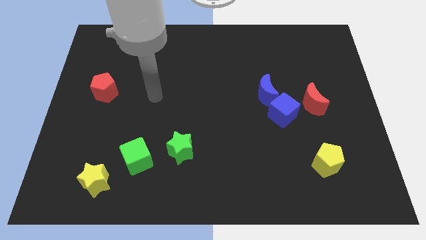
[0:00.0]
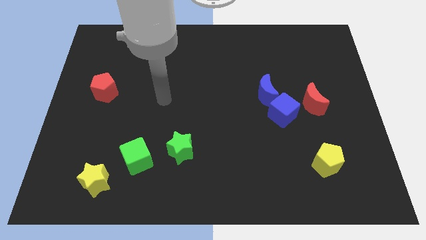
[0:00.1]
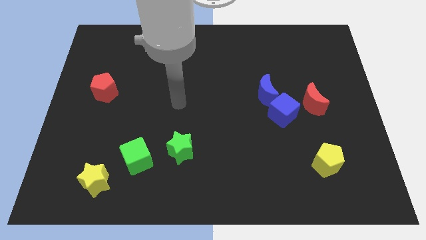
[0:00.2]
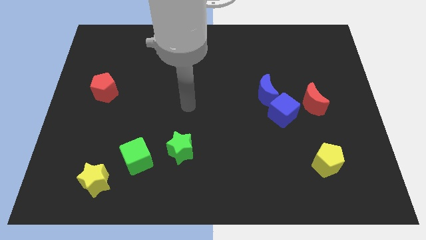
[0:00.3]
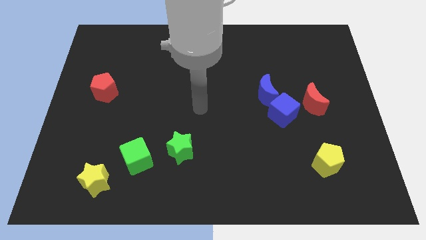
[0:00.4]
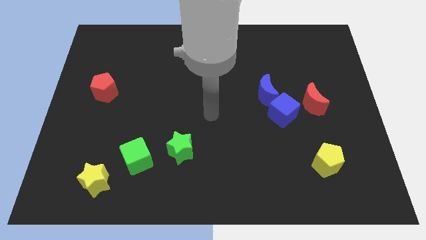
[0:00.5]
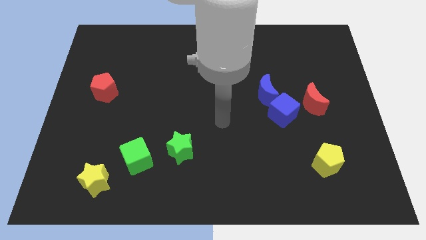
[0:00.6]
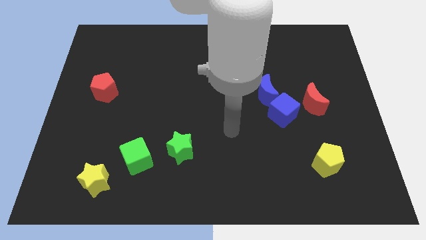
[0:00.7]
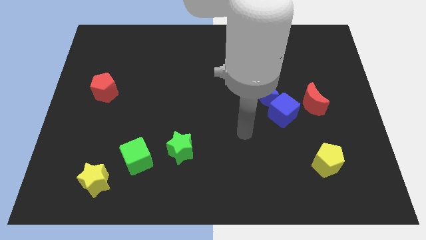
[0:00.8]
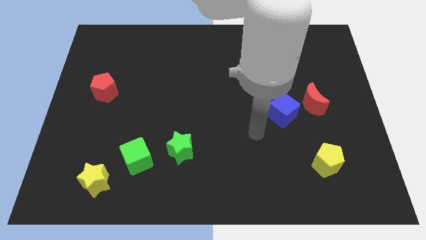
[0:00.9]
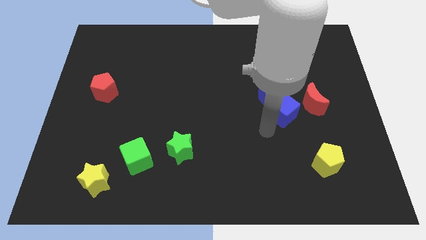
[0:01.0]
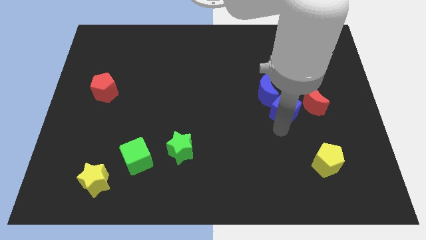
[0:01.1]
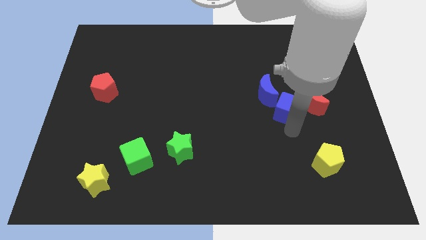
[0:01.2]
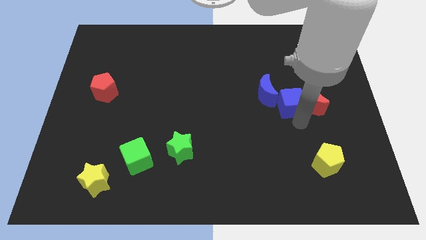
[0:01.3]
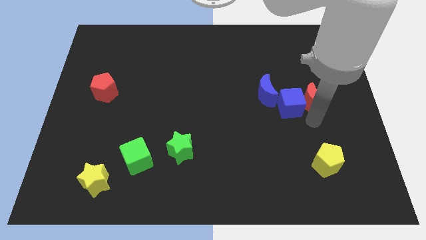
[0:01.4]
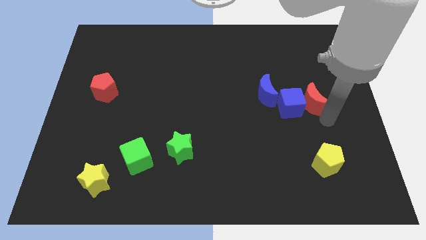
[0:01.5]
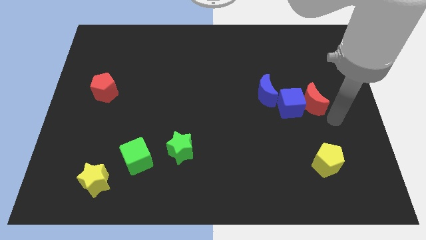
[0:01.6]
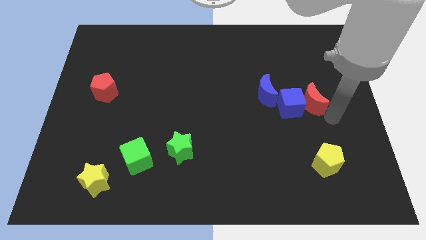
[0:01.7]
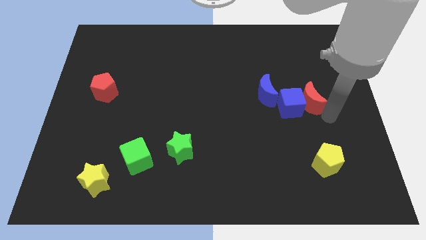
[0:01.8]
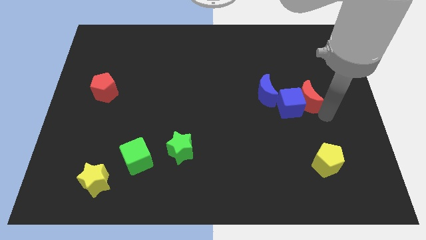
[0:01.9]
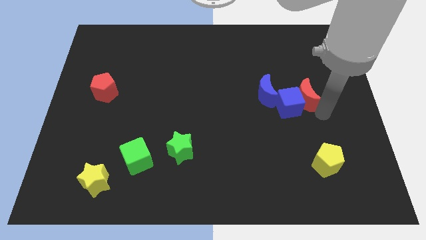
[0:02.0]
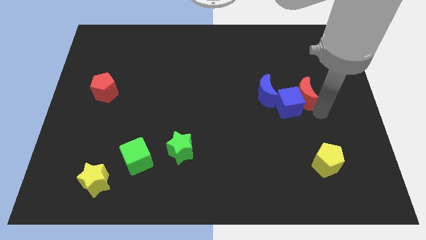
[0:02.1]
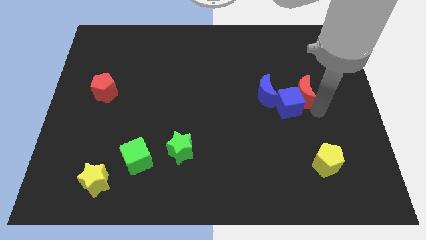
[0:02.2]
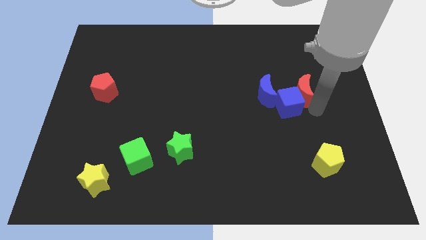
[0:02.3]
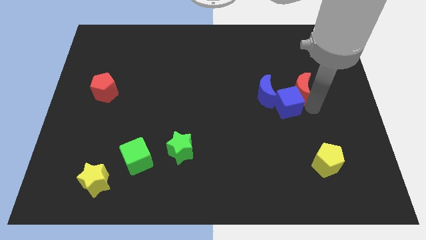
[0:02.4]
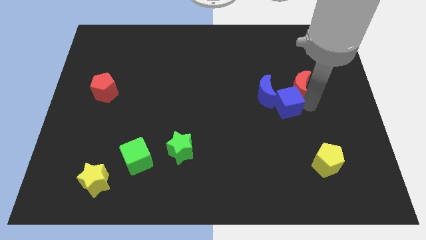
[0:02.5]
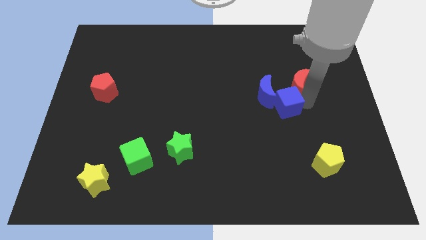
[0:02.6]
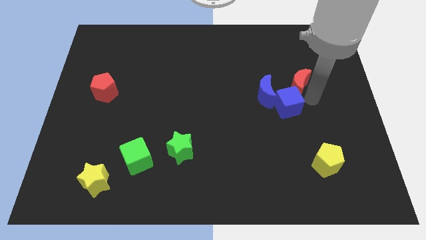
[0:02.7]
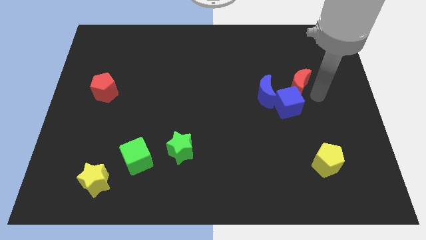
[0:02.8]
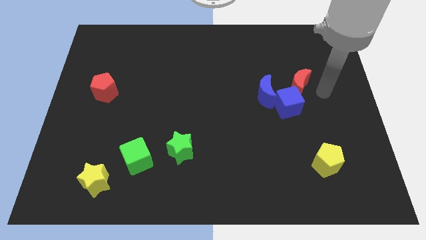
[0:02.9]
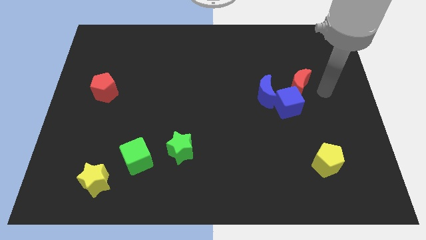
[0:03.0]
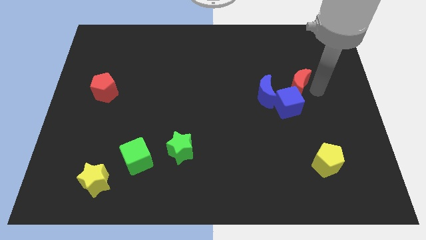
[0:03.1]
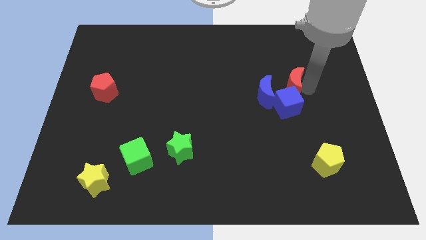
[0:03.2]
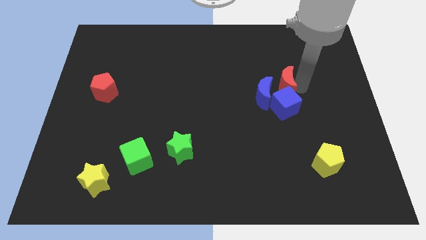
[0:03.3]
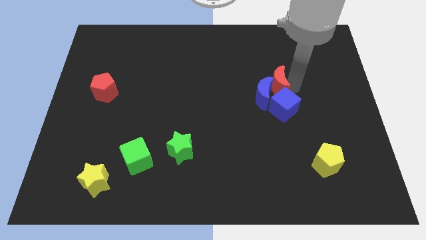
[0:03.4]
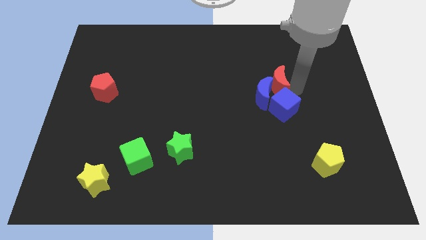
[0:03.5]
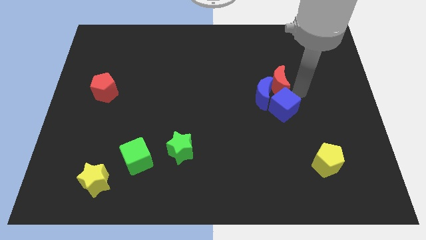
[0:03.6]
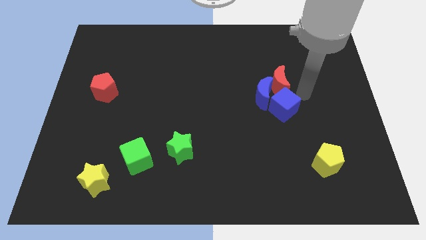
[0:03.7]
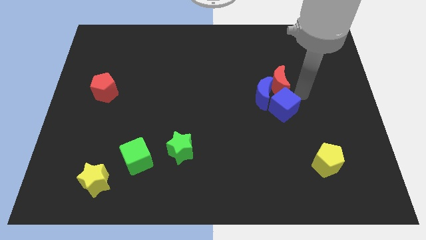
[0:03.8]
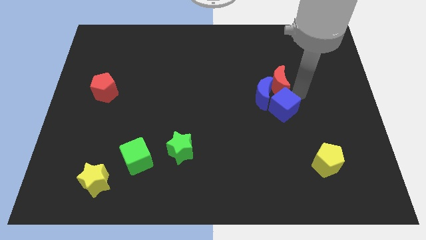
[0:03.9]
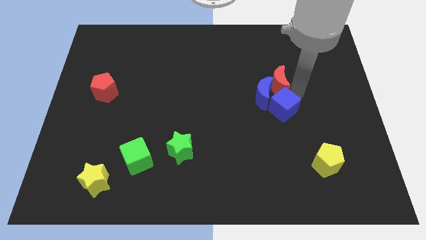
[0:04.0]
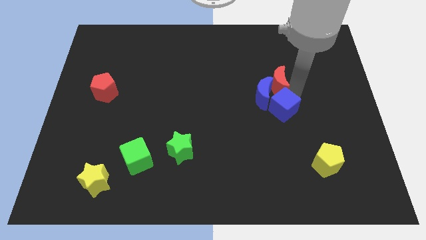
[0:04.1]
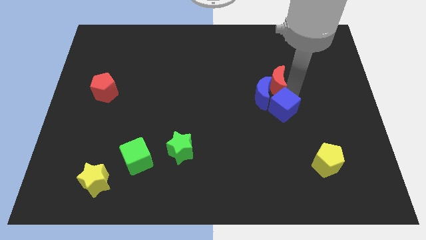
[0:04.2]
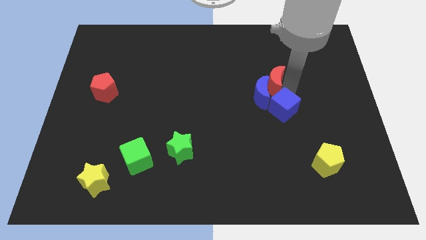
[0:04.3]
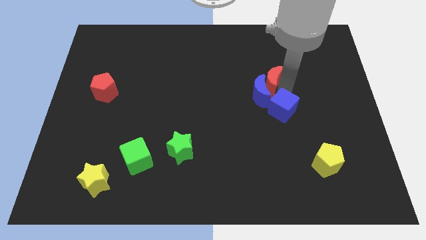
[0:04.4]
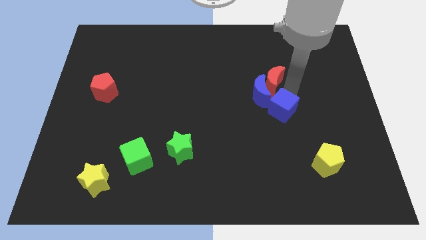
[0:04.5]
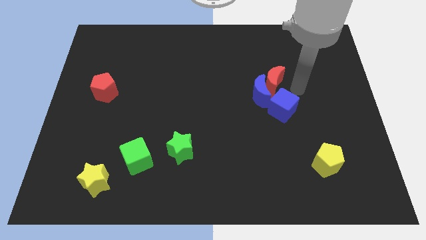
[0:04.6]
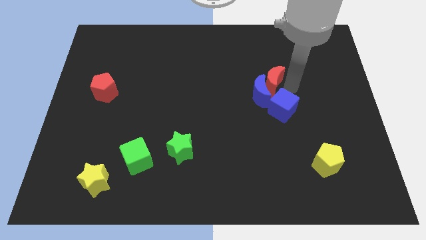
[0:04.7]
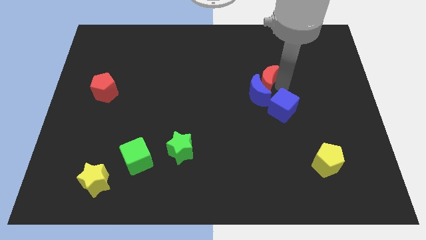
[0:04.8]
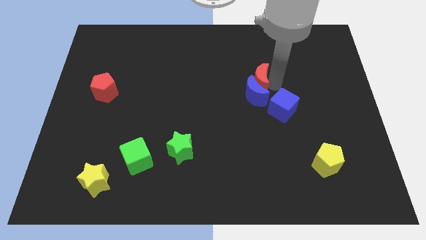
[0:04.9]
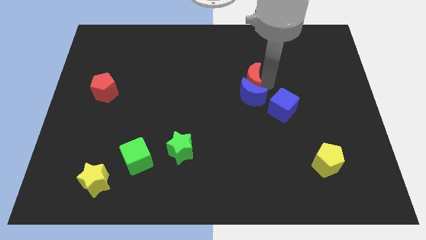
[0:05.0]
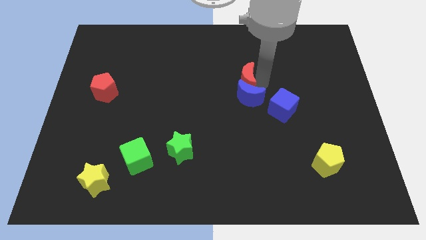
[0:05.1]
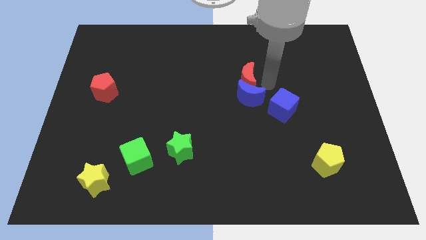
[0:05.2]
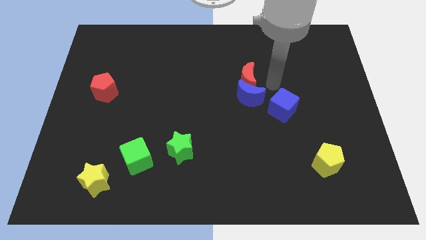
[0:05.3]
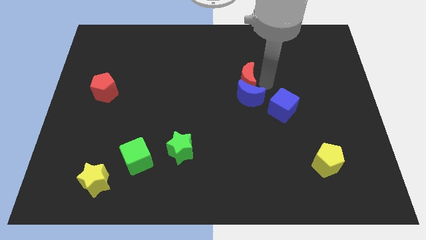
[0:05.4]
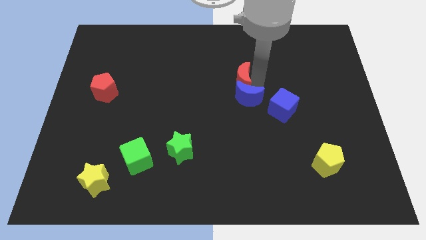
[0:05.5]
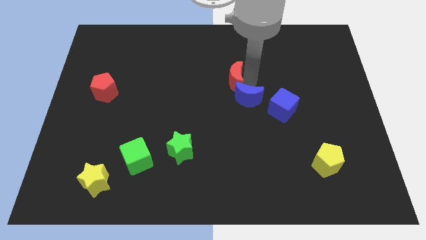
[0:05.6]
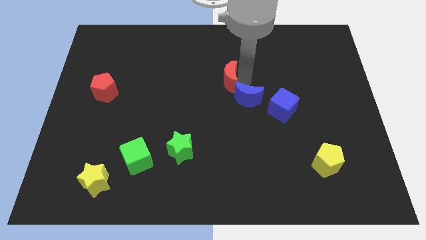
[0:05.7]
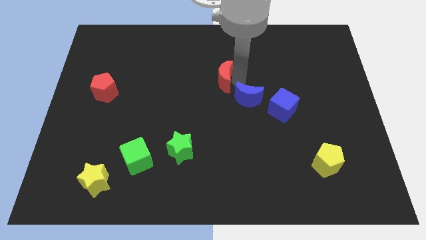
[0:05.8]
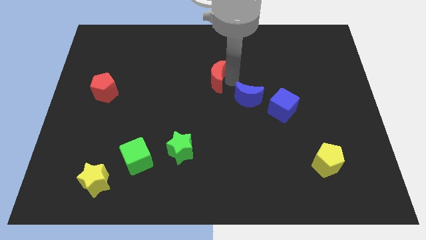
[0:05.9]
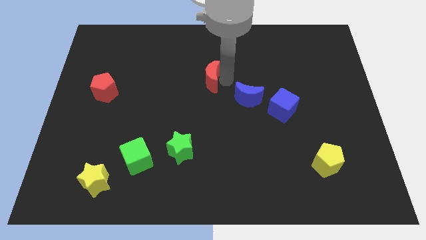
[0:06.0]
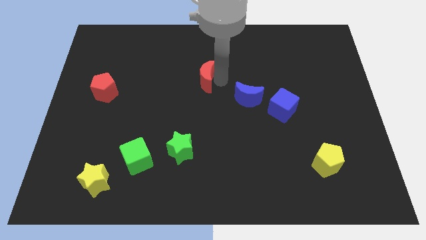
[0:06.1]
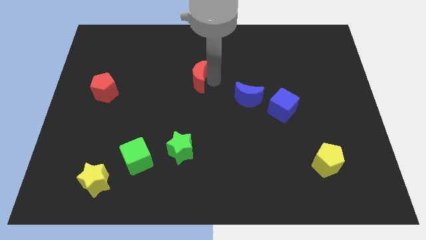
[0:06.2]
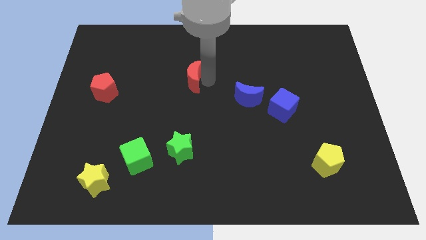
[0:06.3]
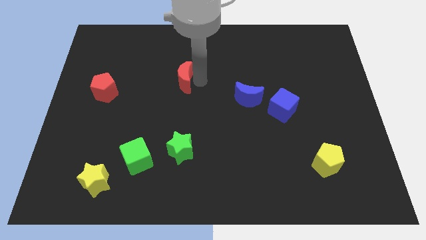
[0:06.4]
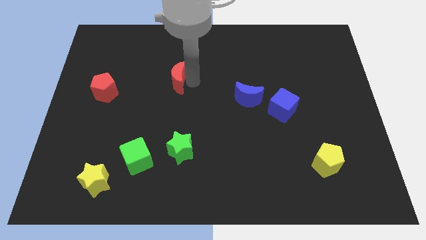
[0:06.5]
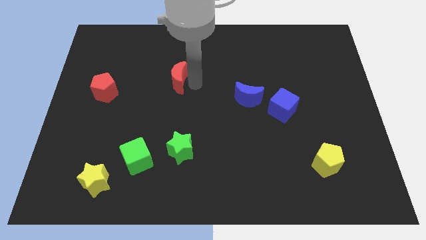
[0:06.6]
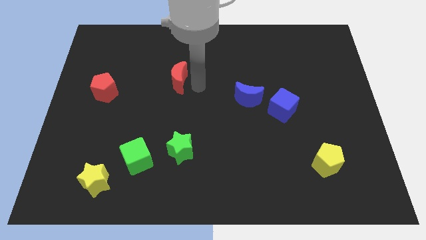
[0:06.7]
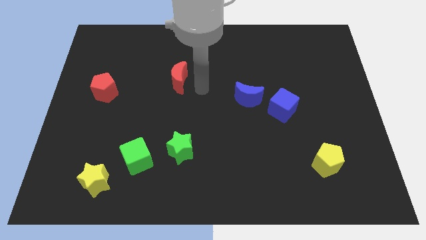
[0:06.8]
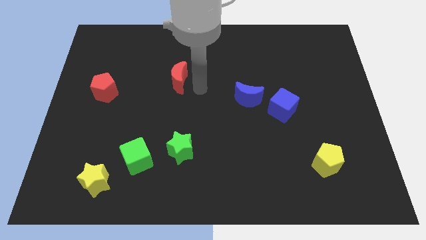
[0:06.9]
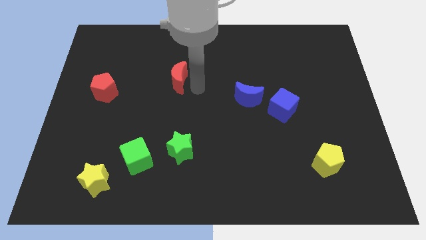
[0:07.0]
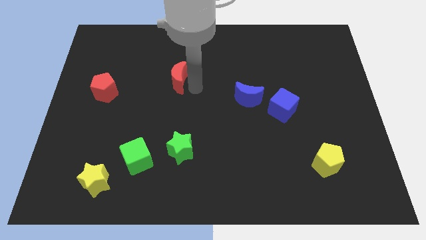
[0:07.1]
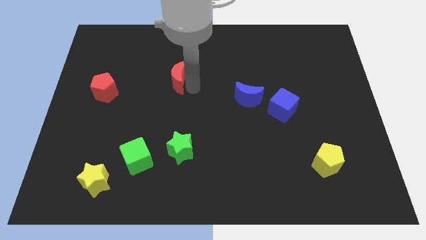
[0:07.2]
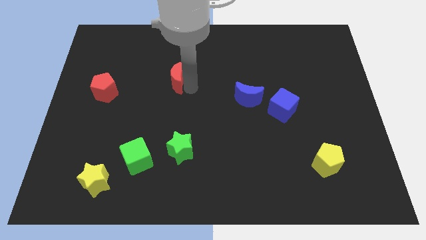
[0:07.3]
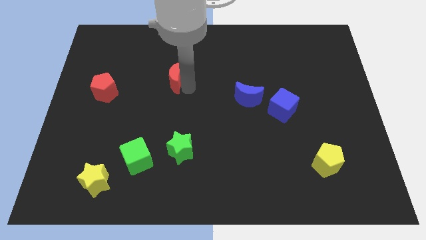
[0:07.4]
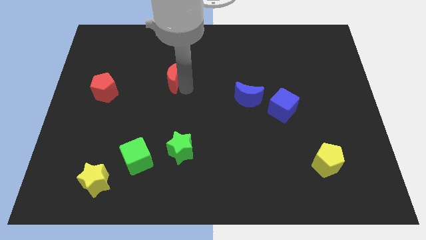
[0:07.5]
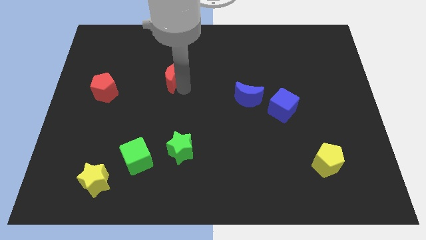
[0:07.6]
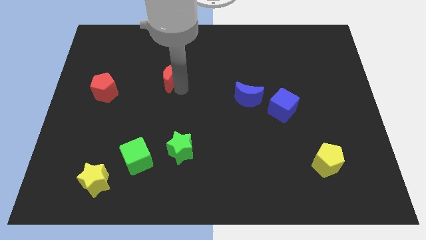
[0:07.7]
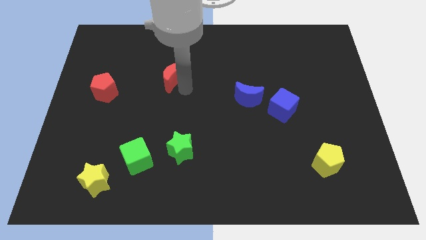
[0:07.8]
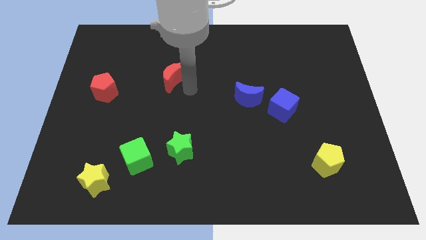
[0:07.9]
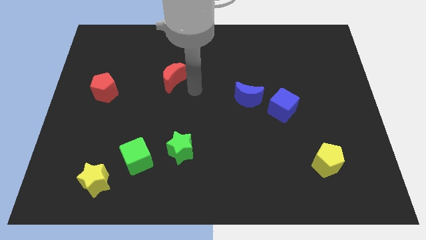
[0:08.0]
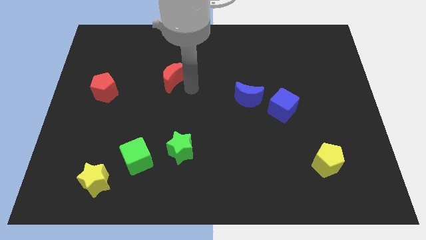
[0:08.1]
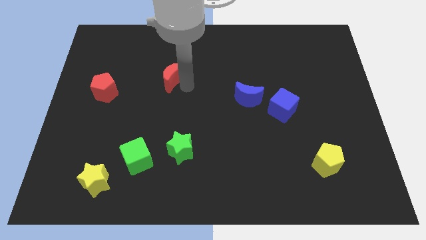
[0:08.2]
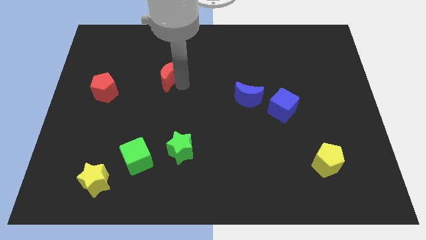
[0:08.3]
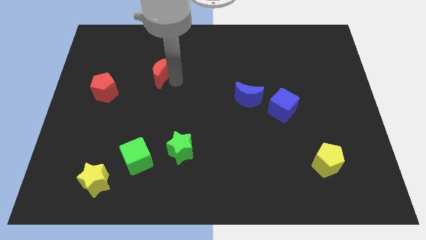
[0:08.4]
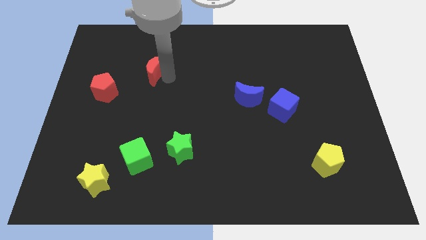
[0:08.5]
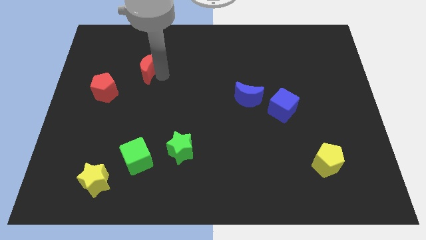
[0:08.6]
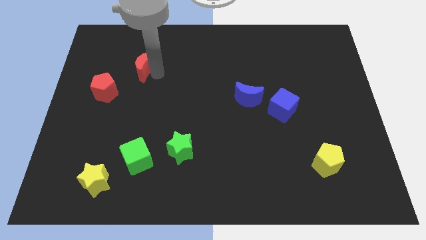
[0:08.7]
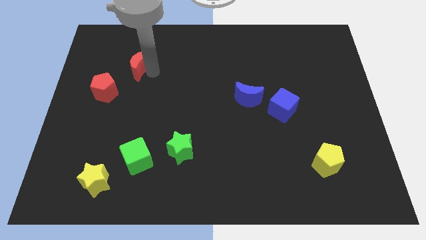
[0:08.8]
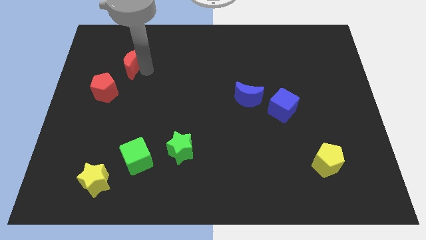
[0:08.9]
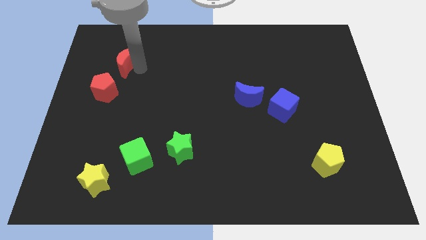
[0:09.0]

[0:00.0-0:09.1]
slide the red moon to the top side of the red pentagon
